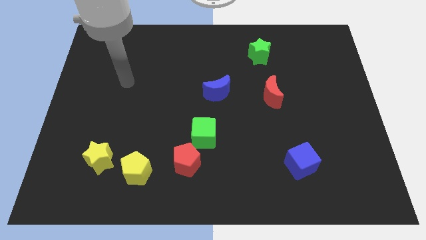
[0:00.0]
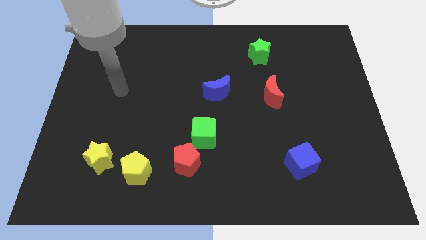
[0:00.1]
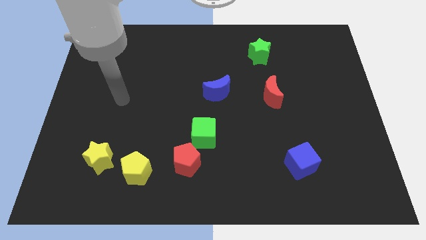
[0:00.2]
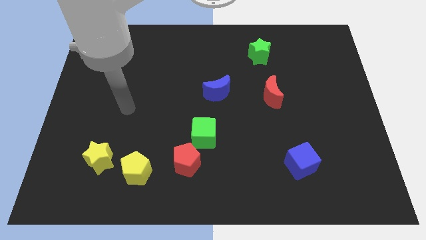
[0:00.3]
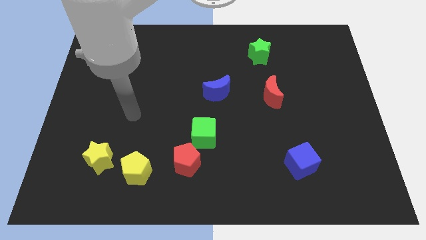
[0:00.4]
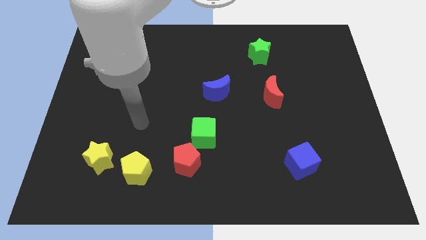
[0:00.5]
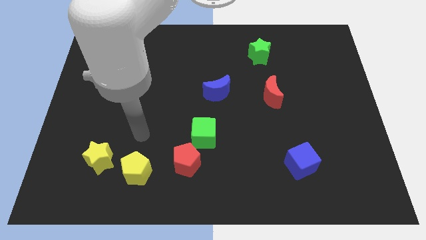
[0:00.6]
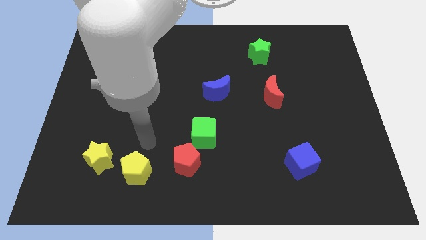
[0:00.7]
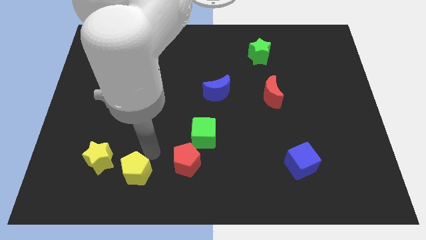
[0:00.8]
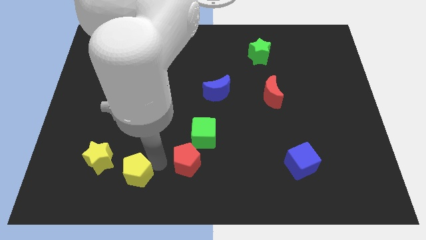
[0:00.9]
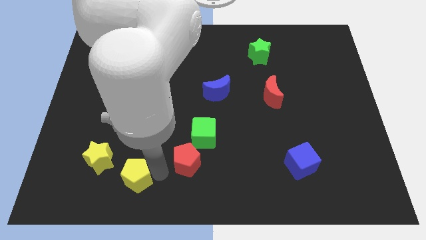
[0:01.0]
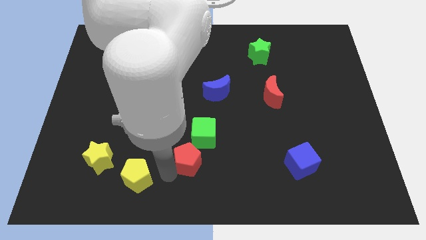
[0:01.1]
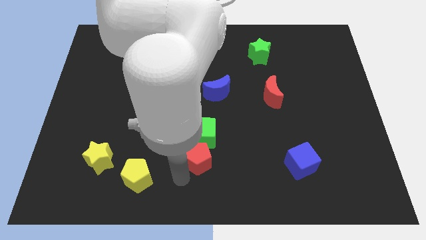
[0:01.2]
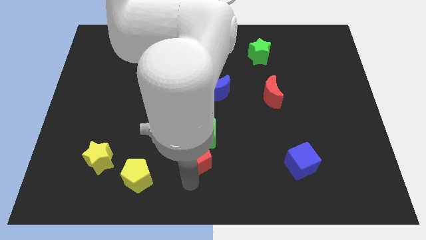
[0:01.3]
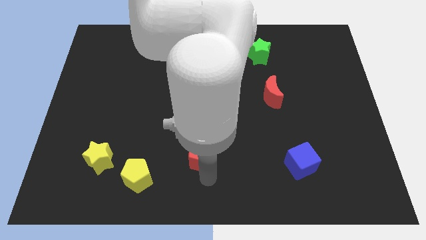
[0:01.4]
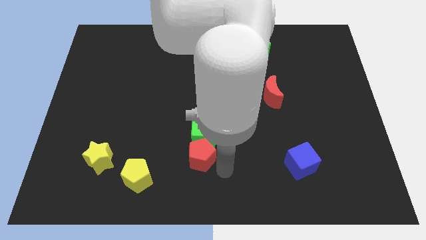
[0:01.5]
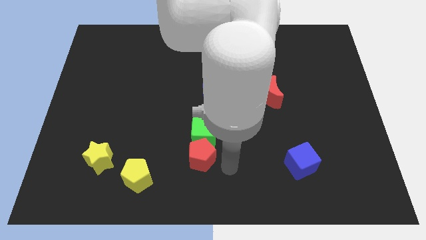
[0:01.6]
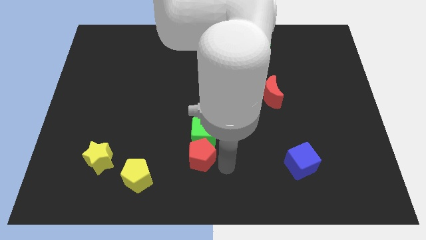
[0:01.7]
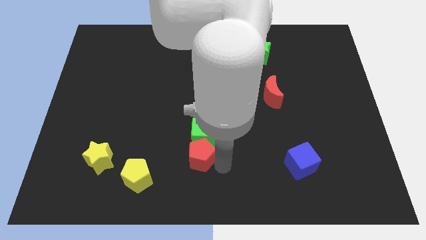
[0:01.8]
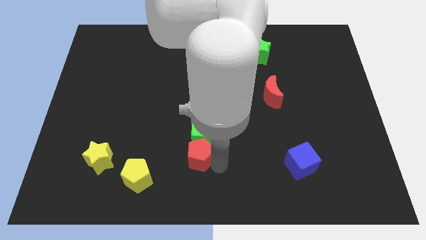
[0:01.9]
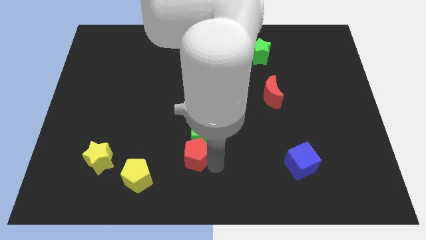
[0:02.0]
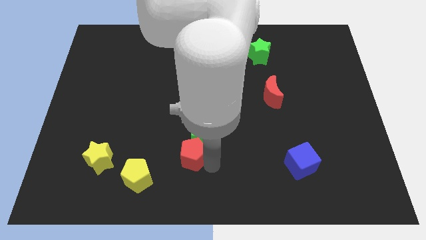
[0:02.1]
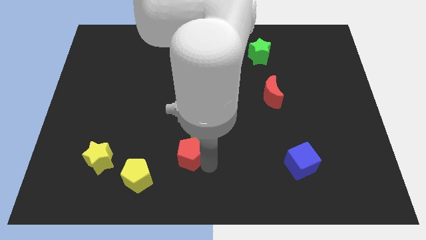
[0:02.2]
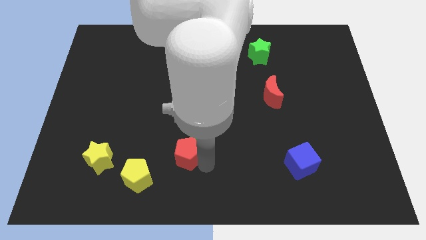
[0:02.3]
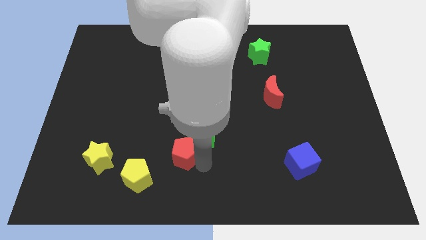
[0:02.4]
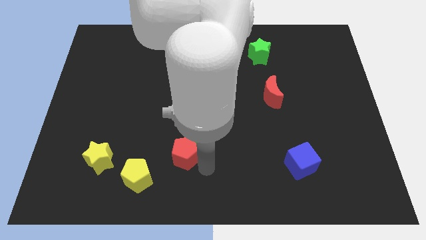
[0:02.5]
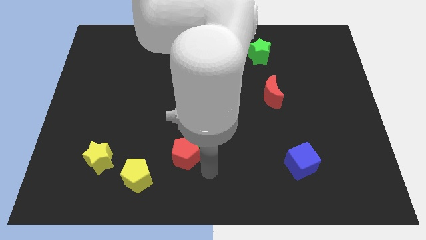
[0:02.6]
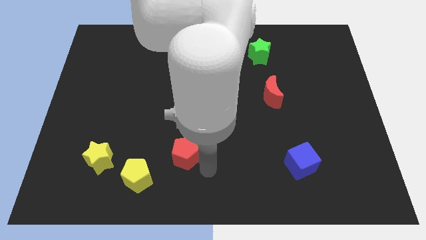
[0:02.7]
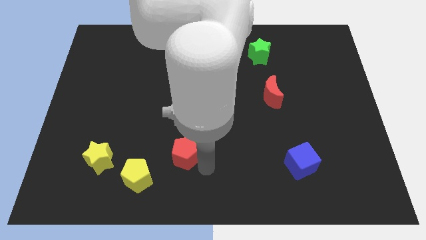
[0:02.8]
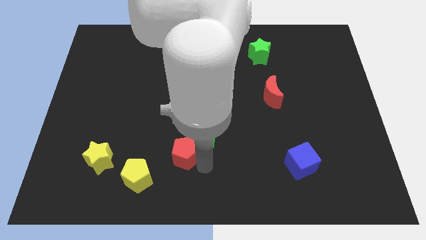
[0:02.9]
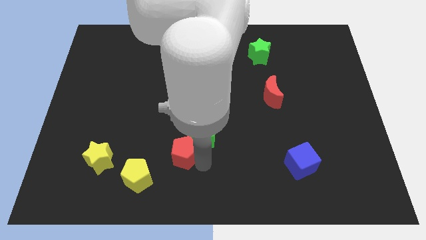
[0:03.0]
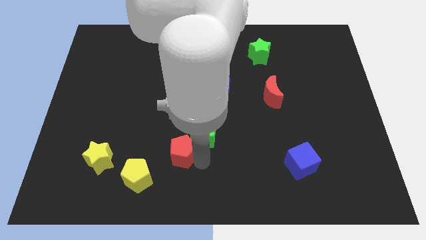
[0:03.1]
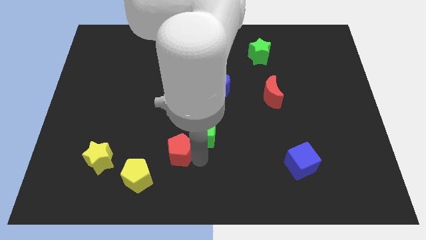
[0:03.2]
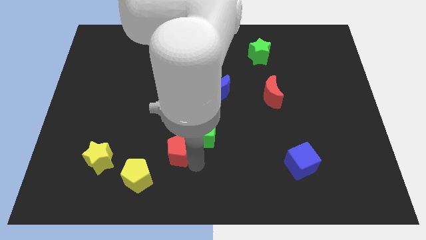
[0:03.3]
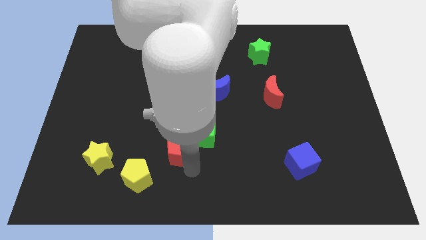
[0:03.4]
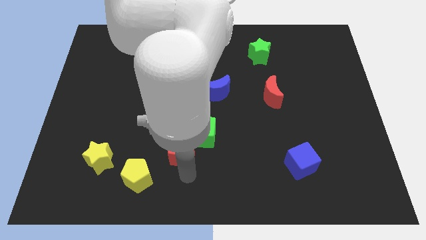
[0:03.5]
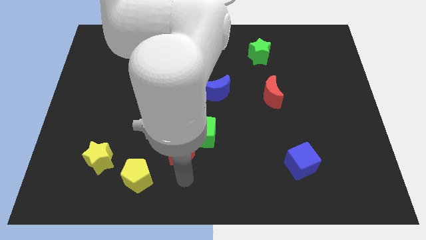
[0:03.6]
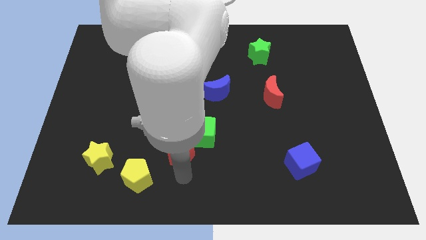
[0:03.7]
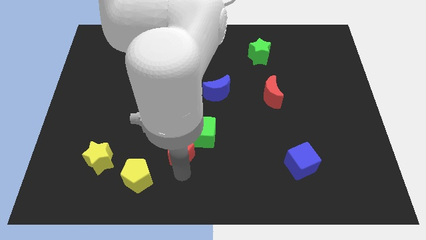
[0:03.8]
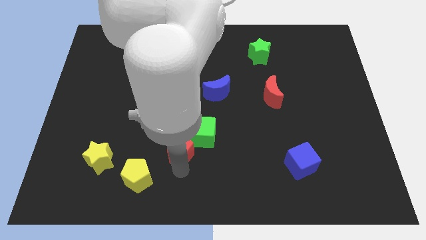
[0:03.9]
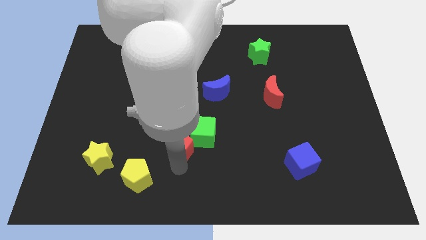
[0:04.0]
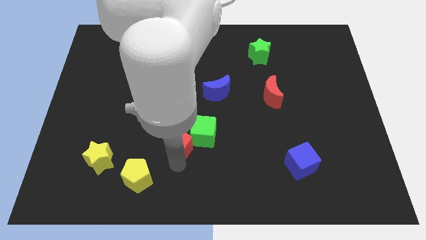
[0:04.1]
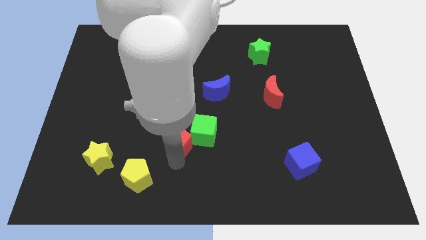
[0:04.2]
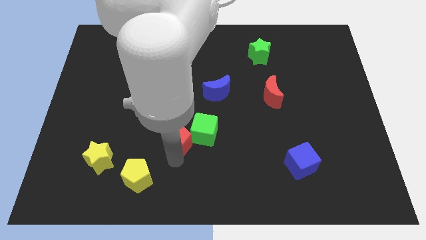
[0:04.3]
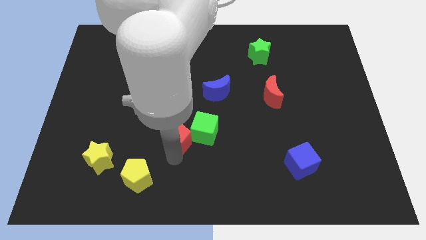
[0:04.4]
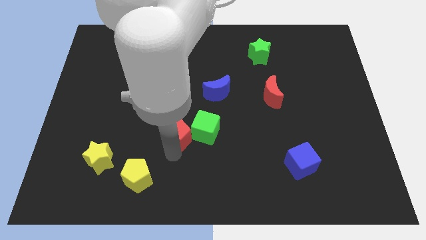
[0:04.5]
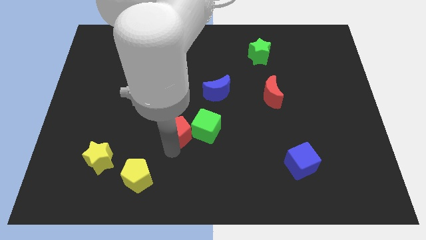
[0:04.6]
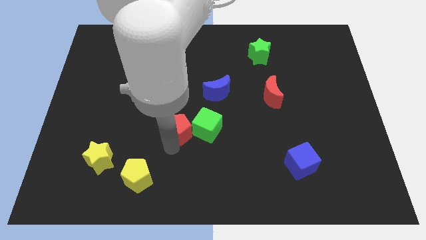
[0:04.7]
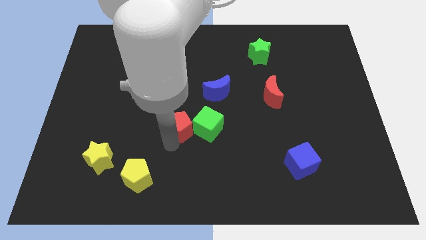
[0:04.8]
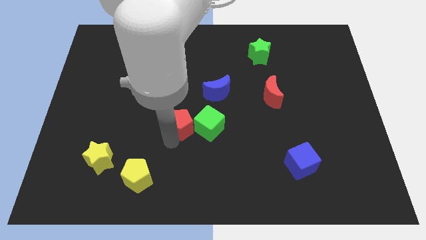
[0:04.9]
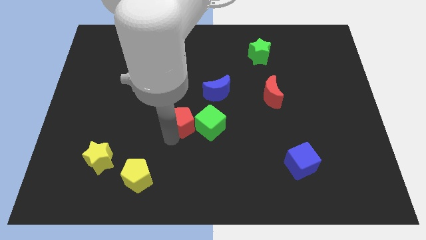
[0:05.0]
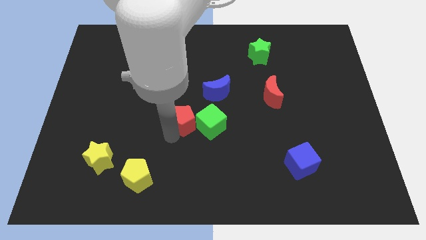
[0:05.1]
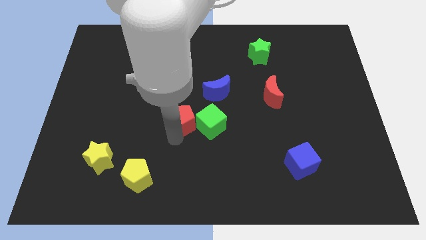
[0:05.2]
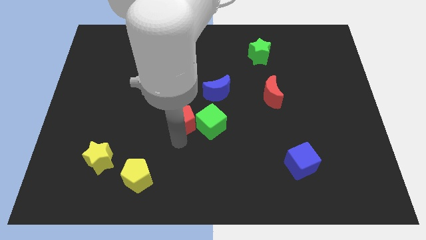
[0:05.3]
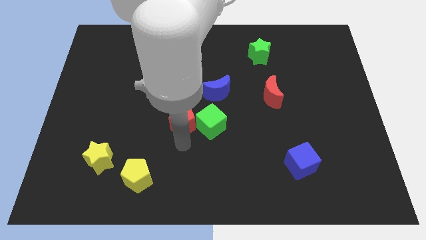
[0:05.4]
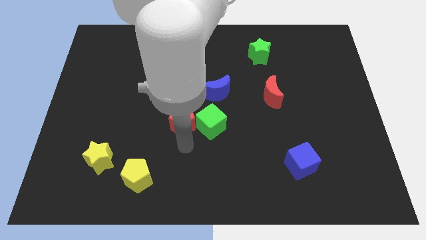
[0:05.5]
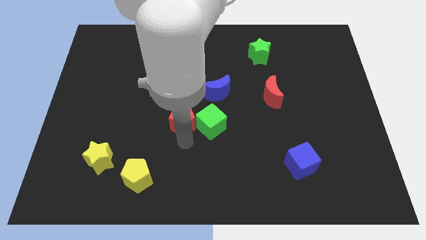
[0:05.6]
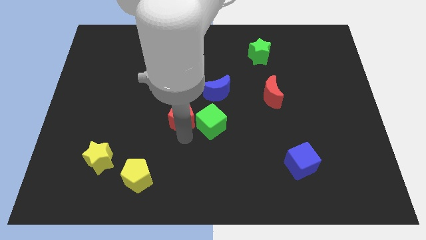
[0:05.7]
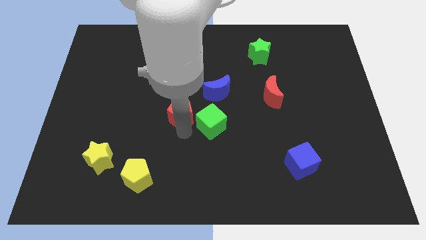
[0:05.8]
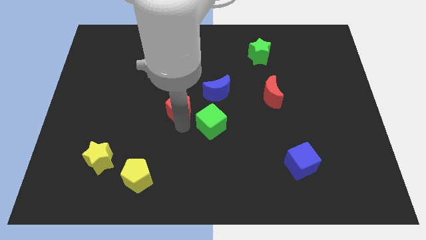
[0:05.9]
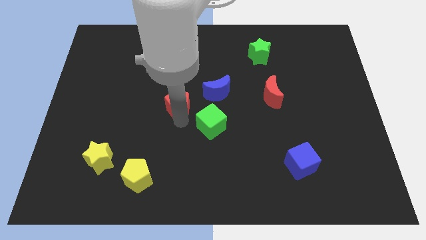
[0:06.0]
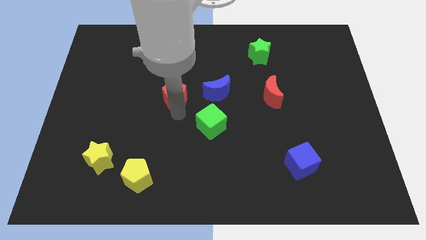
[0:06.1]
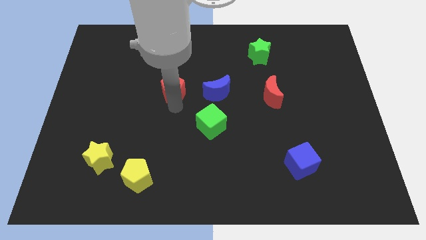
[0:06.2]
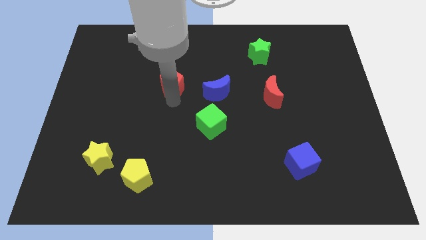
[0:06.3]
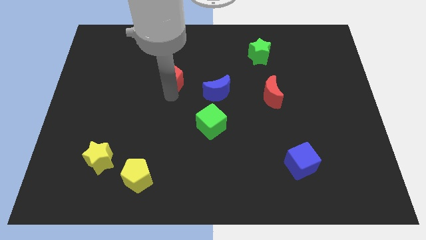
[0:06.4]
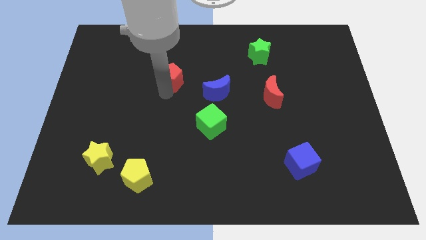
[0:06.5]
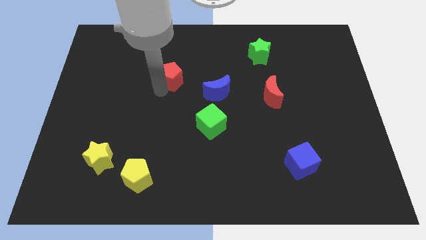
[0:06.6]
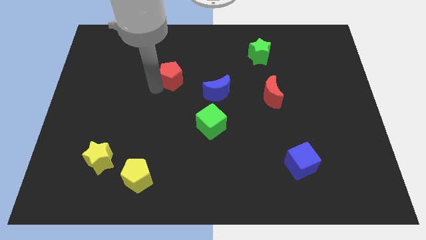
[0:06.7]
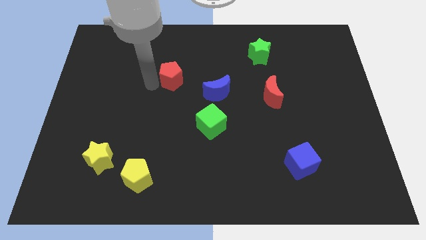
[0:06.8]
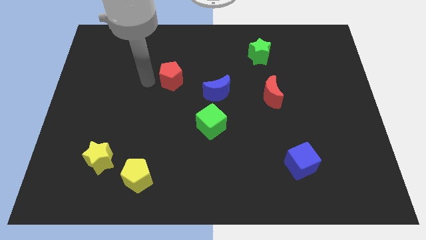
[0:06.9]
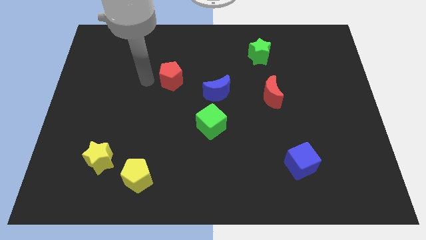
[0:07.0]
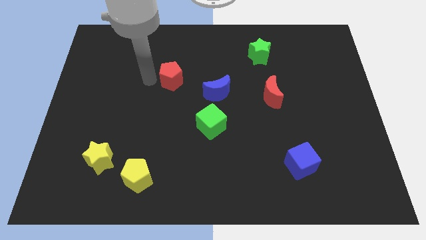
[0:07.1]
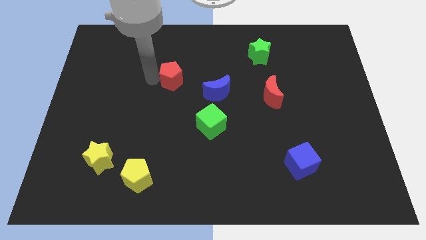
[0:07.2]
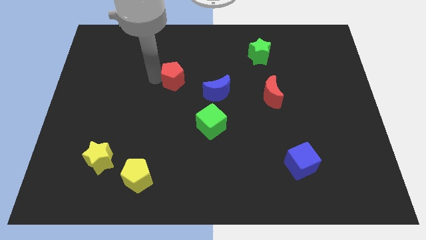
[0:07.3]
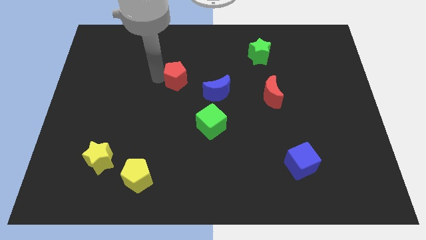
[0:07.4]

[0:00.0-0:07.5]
put the red pentagon to the top left of the blue moon
